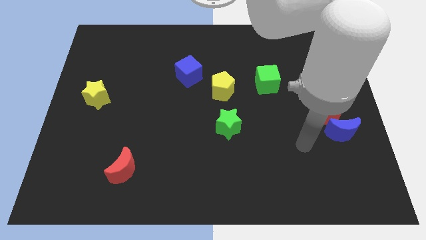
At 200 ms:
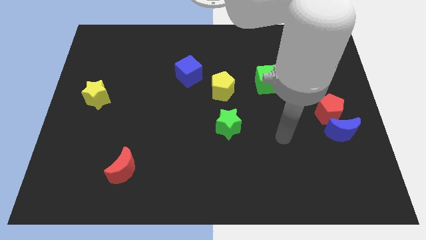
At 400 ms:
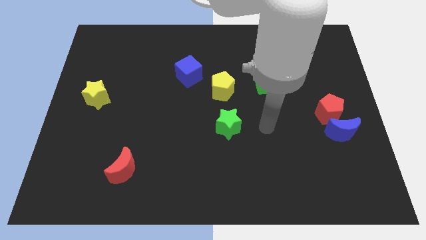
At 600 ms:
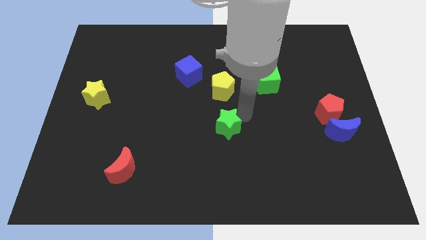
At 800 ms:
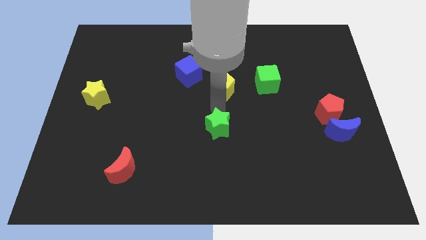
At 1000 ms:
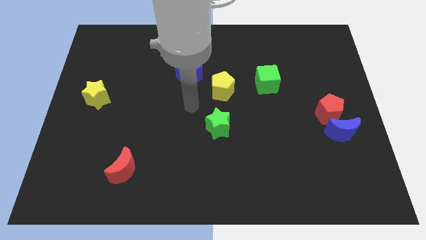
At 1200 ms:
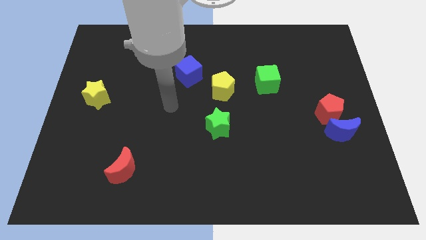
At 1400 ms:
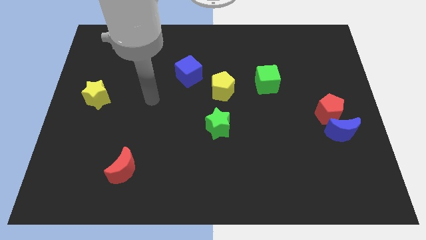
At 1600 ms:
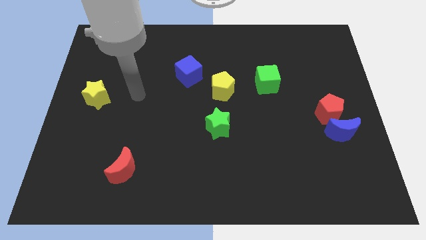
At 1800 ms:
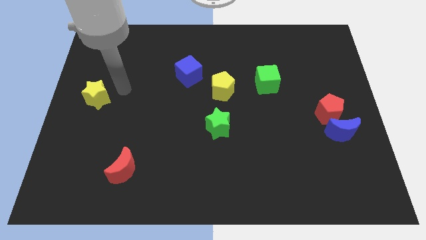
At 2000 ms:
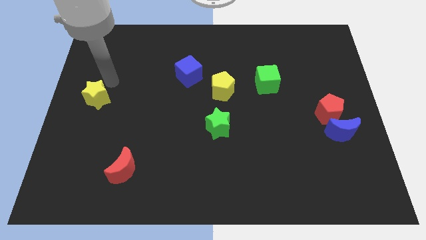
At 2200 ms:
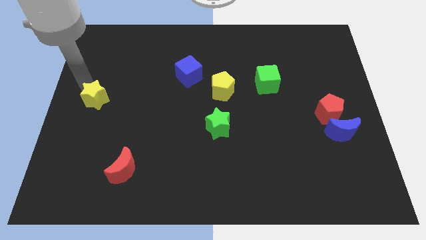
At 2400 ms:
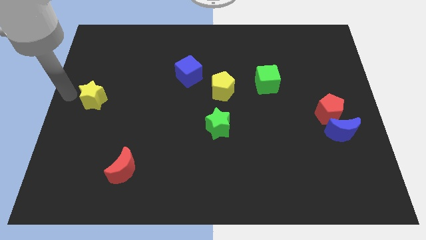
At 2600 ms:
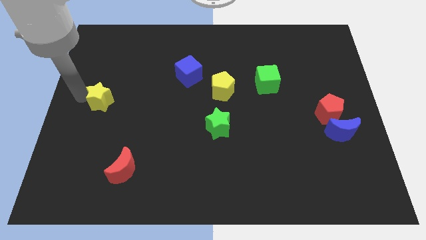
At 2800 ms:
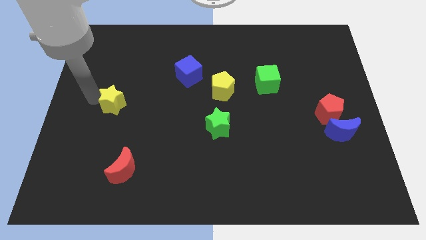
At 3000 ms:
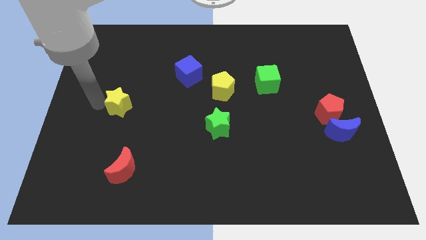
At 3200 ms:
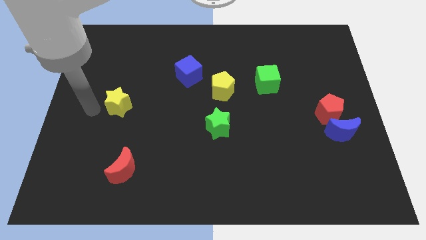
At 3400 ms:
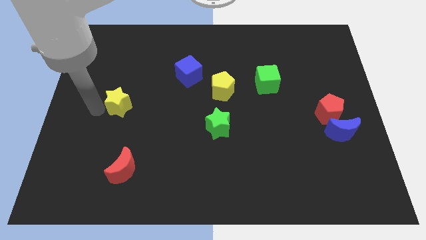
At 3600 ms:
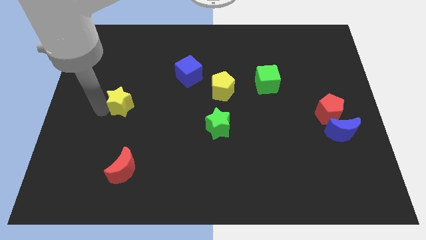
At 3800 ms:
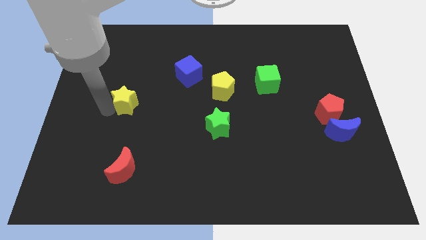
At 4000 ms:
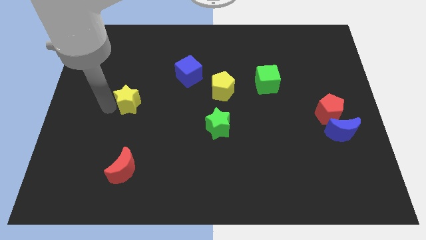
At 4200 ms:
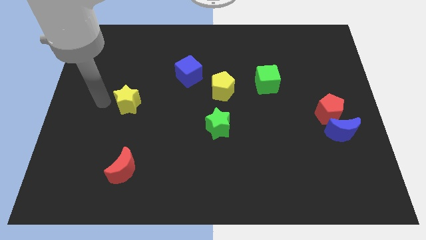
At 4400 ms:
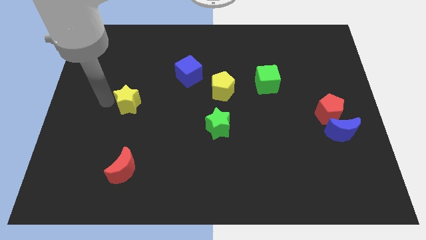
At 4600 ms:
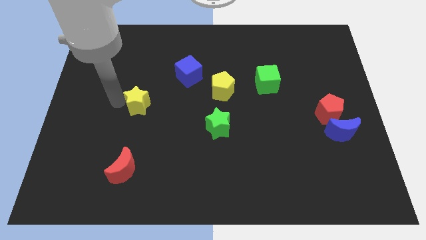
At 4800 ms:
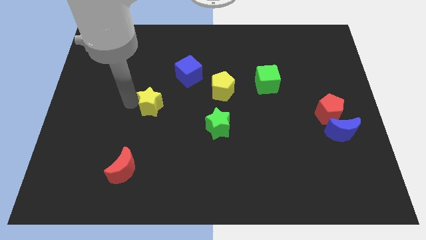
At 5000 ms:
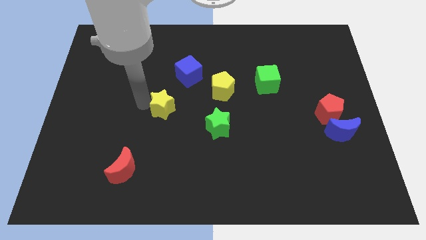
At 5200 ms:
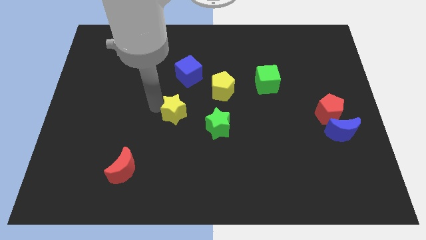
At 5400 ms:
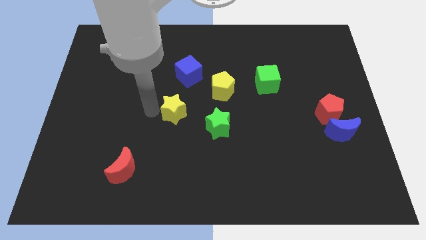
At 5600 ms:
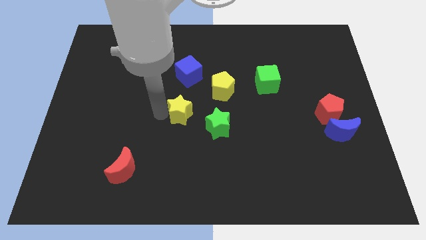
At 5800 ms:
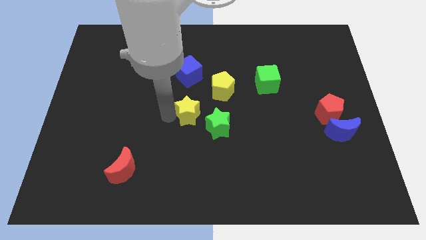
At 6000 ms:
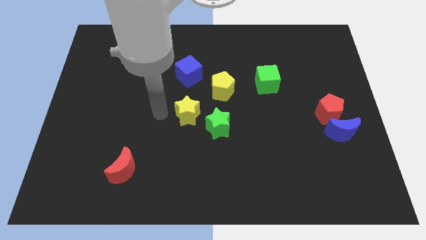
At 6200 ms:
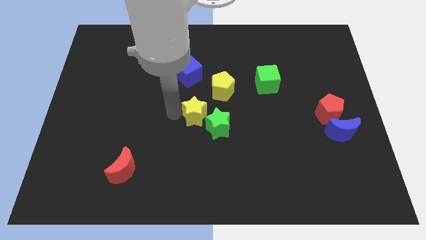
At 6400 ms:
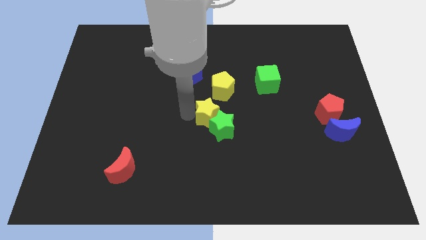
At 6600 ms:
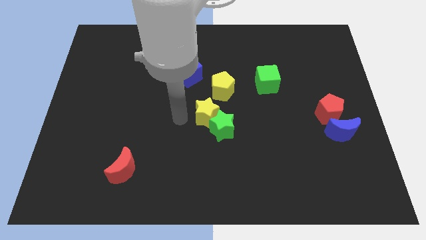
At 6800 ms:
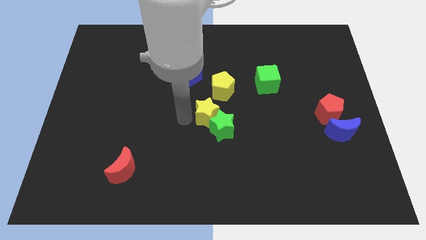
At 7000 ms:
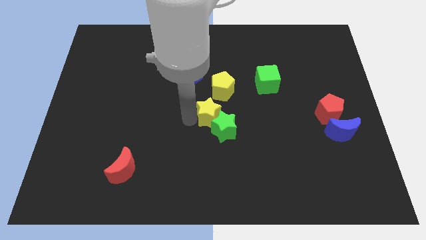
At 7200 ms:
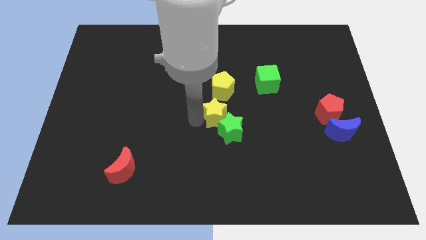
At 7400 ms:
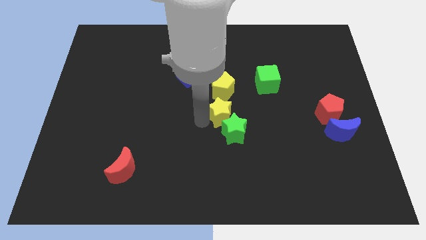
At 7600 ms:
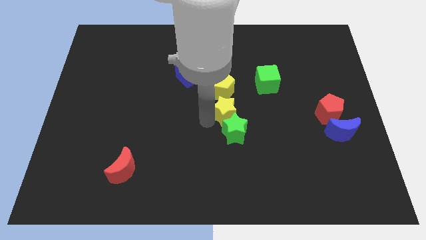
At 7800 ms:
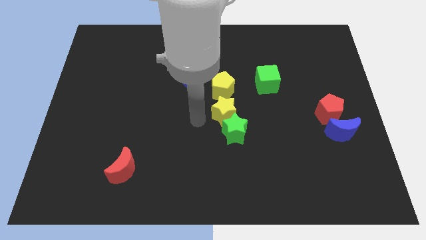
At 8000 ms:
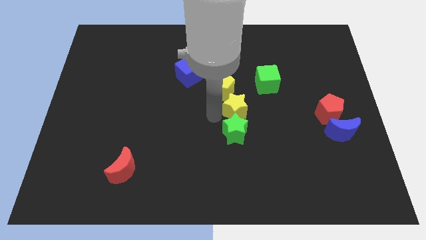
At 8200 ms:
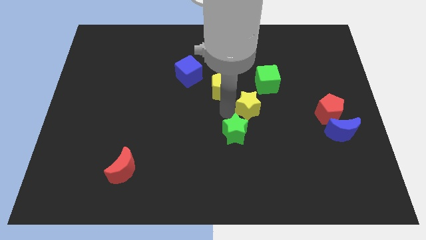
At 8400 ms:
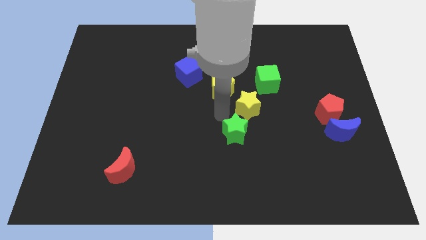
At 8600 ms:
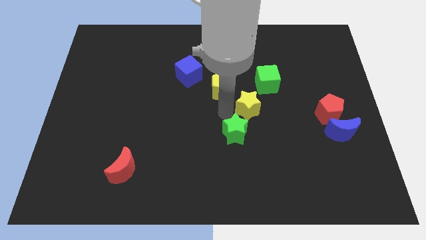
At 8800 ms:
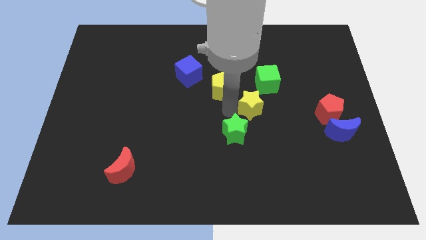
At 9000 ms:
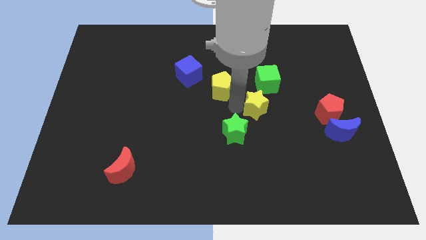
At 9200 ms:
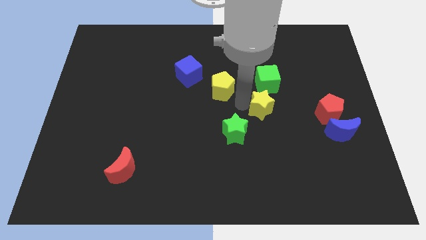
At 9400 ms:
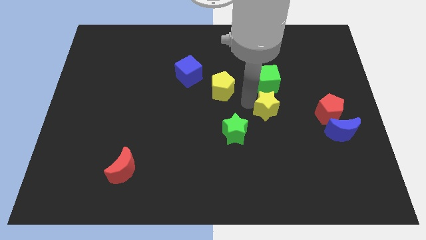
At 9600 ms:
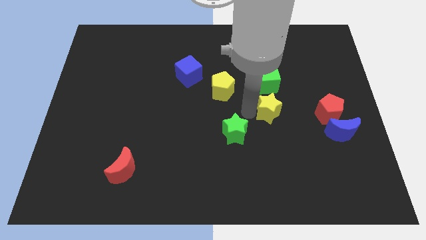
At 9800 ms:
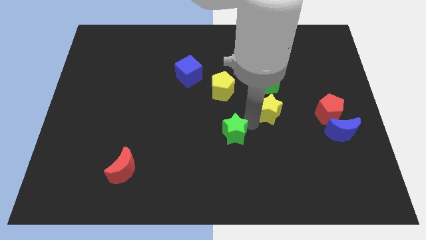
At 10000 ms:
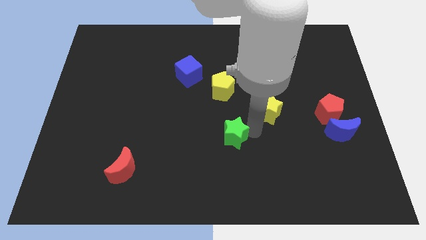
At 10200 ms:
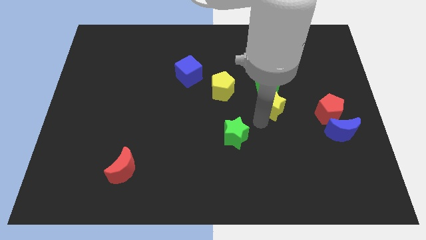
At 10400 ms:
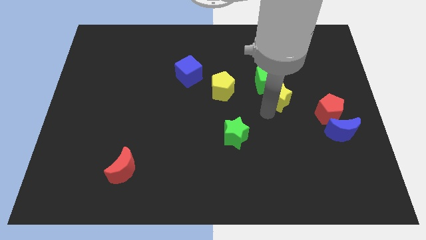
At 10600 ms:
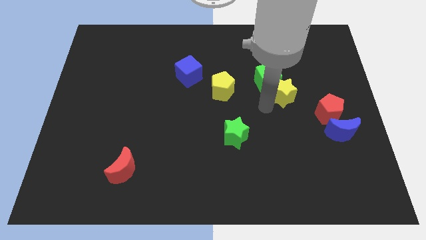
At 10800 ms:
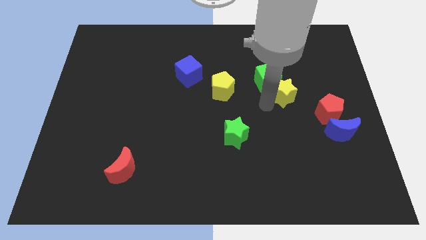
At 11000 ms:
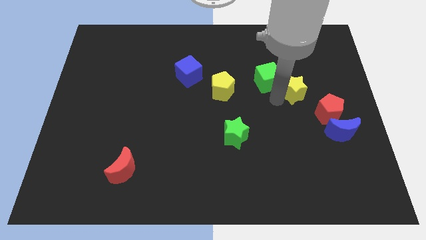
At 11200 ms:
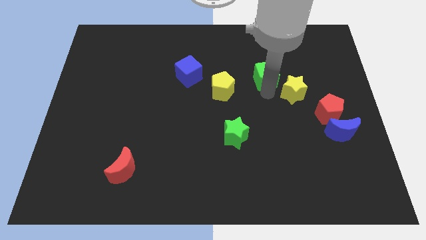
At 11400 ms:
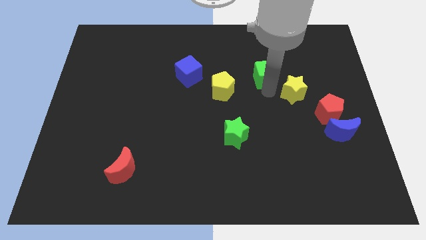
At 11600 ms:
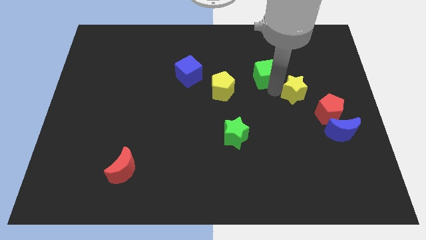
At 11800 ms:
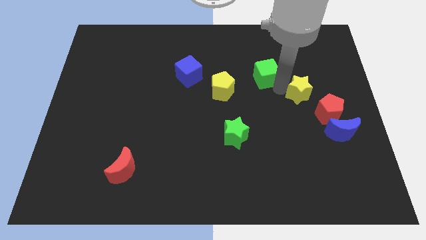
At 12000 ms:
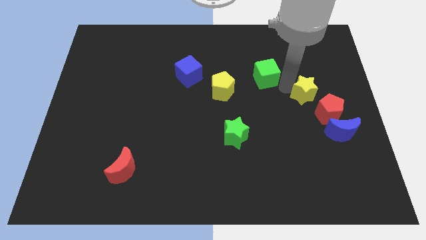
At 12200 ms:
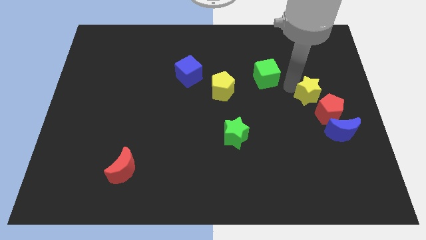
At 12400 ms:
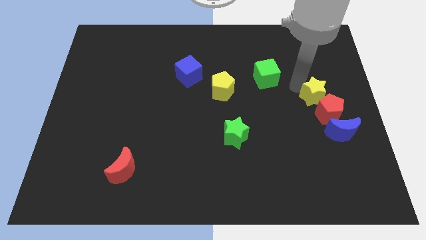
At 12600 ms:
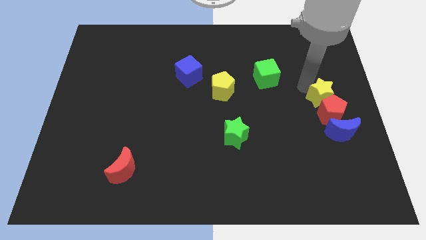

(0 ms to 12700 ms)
move the yellow star to the right side

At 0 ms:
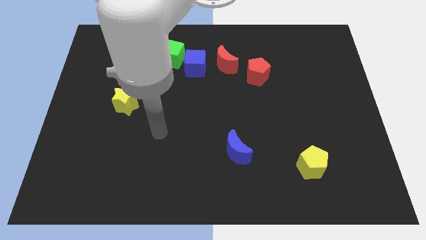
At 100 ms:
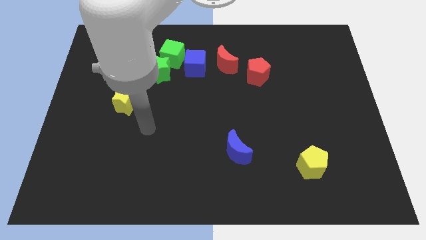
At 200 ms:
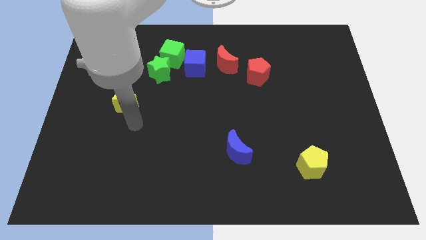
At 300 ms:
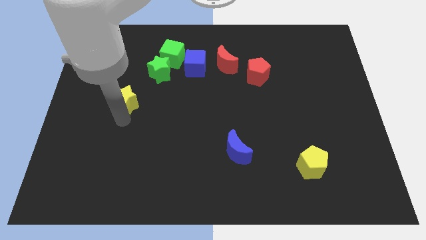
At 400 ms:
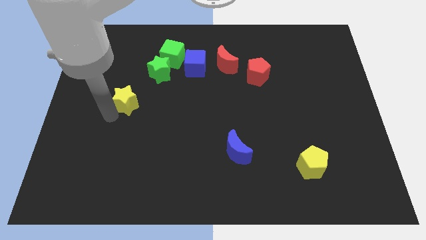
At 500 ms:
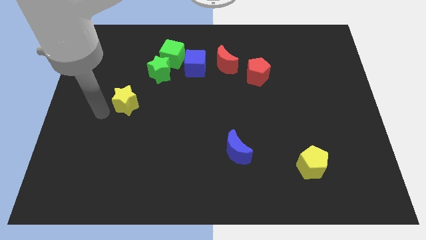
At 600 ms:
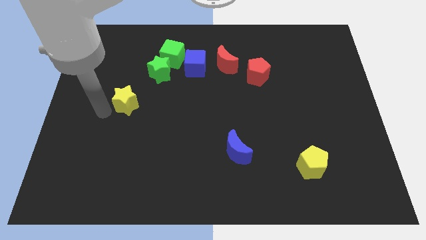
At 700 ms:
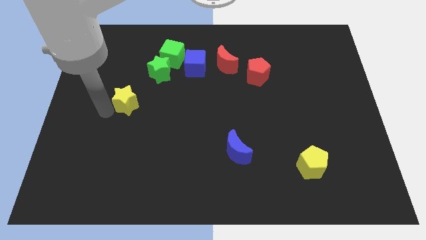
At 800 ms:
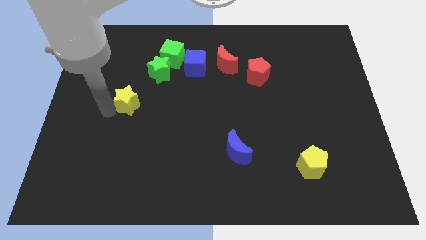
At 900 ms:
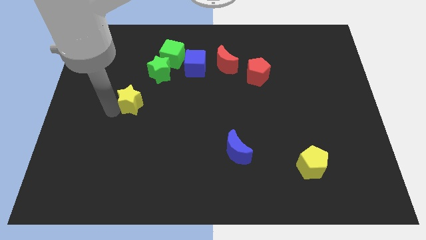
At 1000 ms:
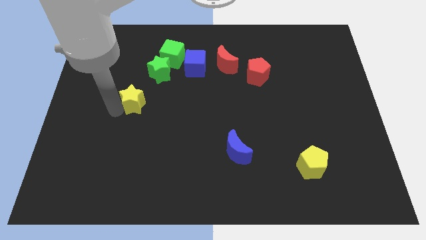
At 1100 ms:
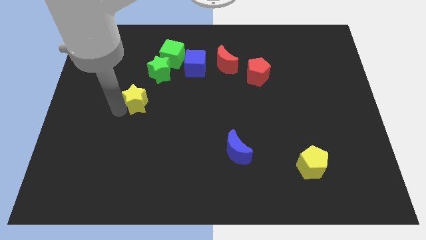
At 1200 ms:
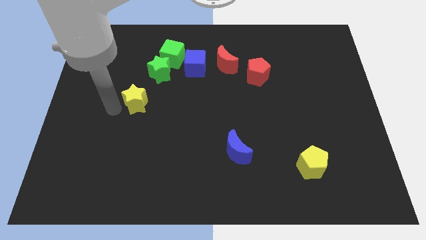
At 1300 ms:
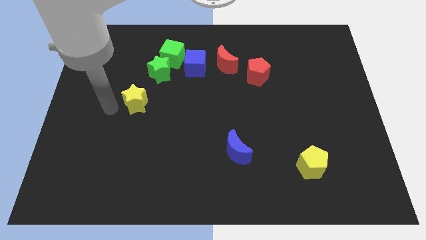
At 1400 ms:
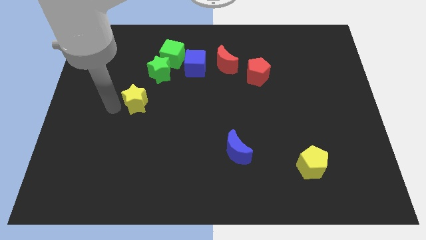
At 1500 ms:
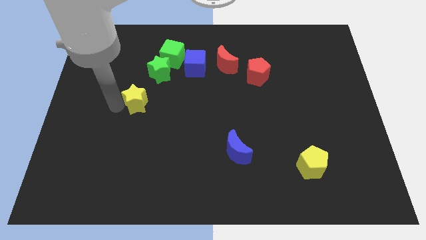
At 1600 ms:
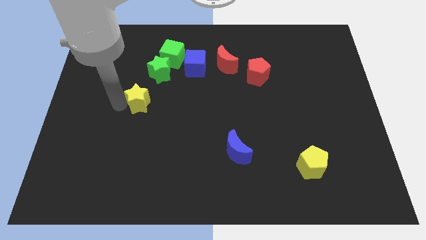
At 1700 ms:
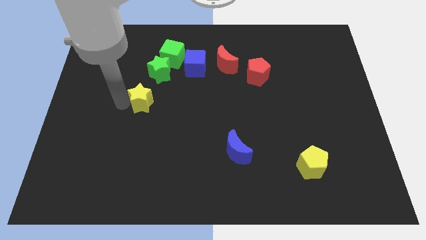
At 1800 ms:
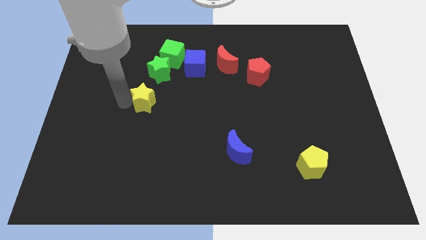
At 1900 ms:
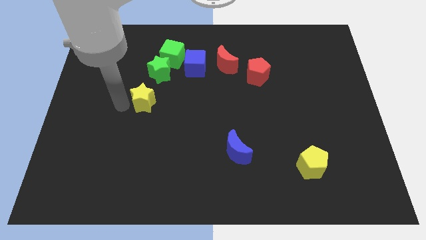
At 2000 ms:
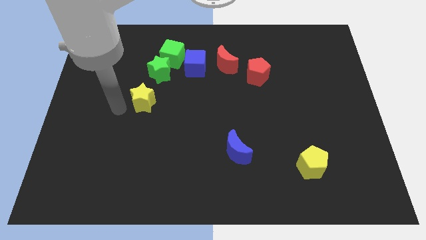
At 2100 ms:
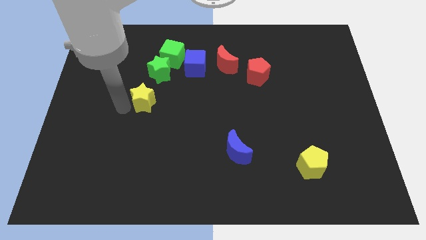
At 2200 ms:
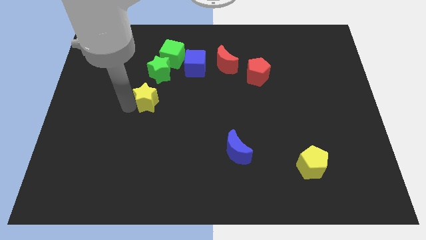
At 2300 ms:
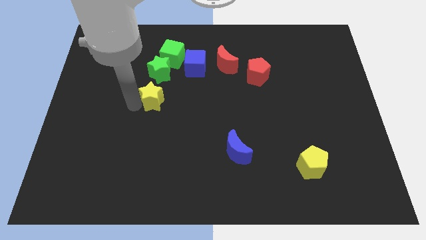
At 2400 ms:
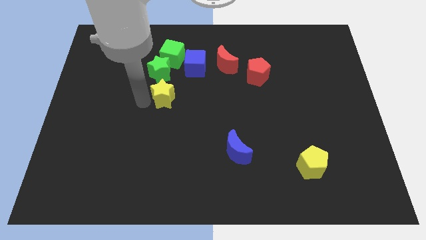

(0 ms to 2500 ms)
slide the yellow star to the middle
